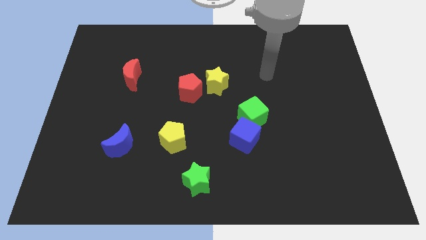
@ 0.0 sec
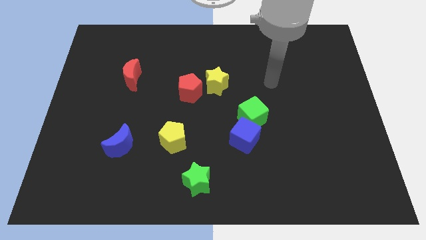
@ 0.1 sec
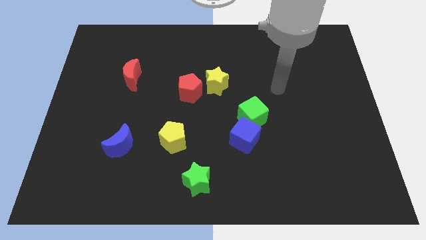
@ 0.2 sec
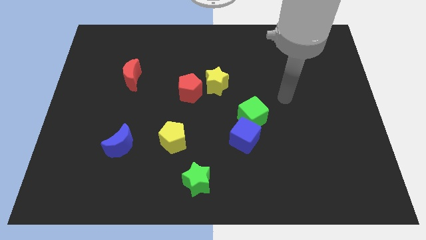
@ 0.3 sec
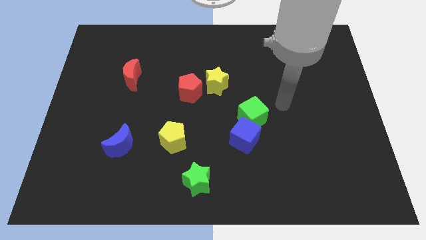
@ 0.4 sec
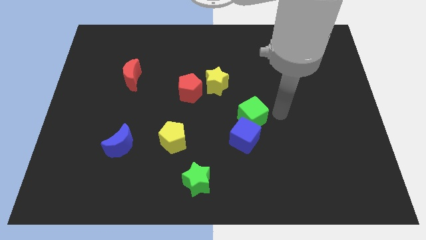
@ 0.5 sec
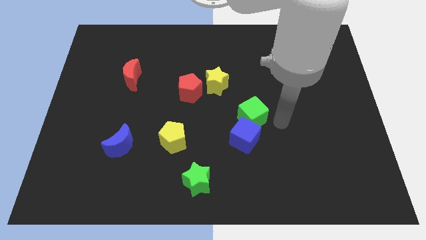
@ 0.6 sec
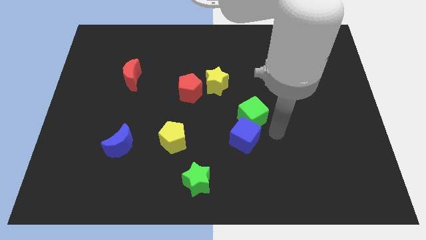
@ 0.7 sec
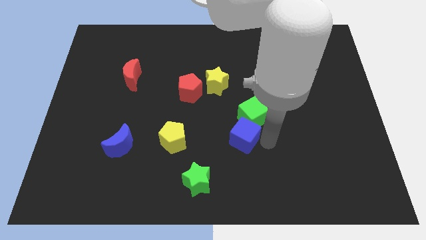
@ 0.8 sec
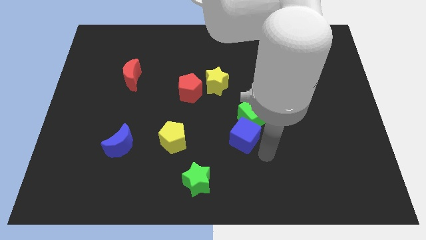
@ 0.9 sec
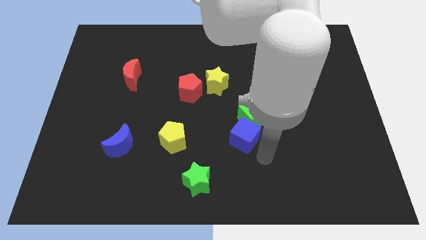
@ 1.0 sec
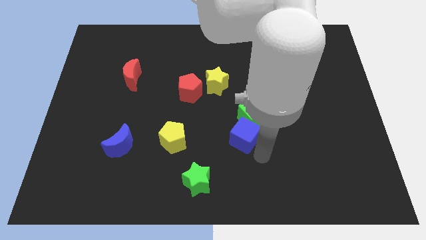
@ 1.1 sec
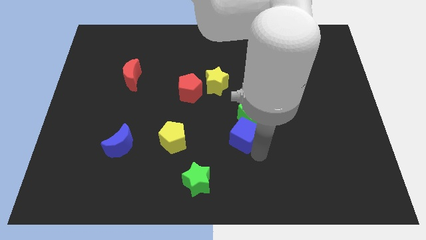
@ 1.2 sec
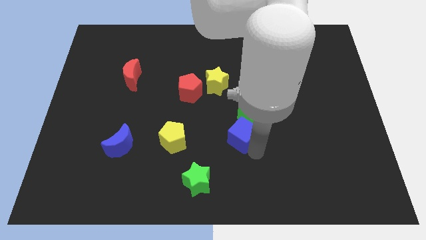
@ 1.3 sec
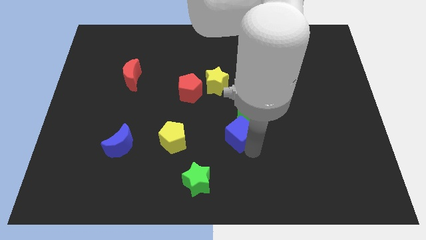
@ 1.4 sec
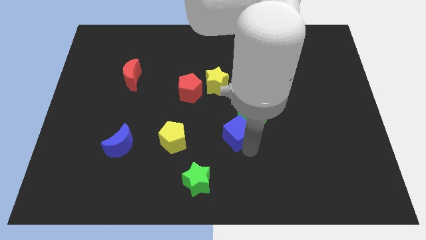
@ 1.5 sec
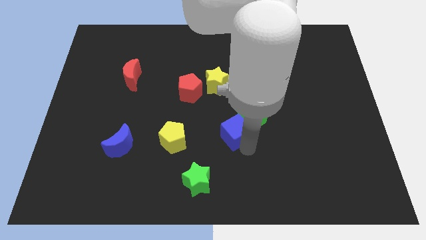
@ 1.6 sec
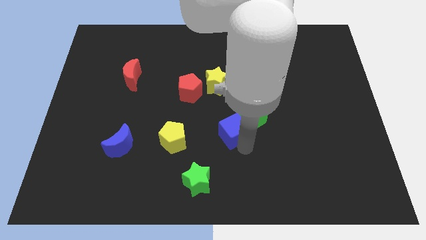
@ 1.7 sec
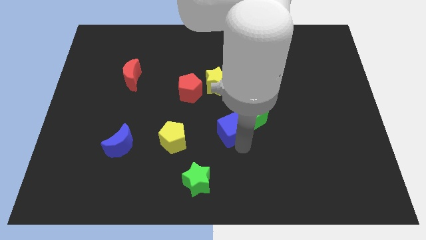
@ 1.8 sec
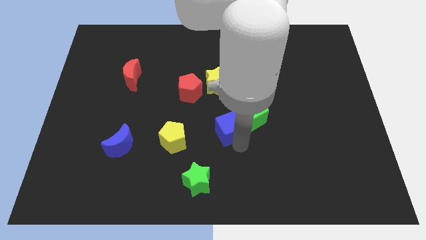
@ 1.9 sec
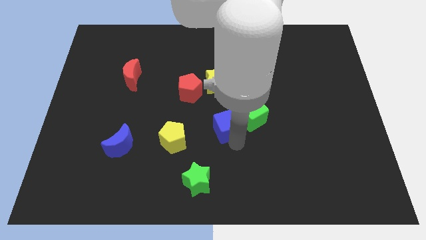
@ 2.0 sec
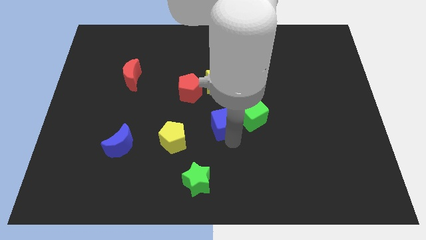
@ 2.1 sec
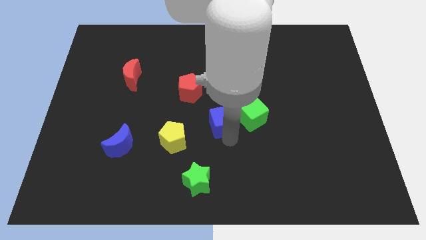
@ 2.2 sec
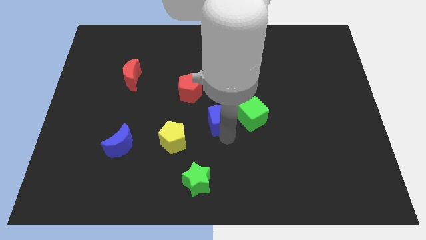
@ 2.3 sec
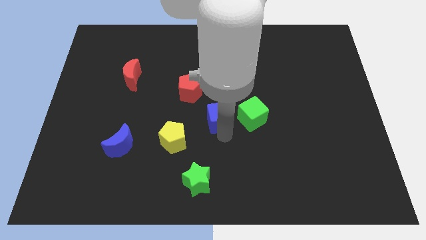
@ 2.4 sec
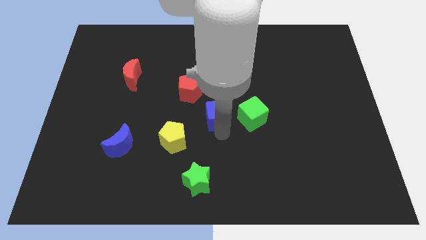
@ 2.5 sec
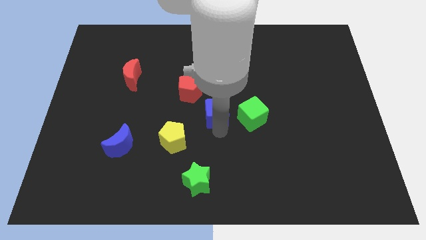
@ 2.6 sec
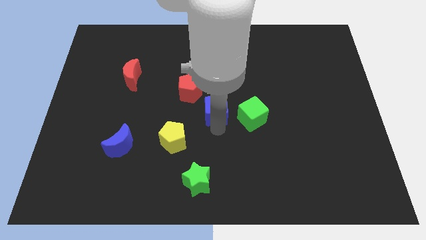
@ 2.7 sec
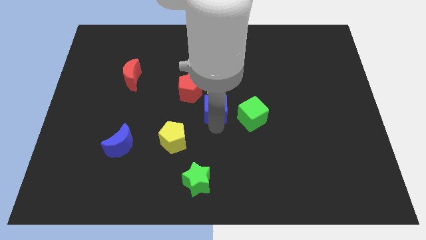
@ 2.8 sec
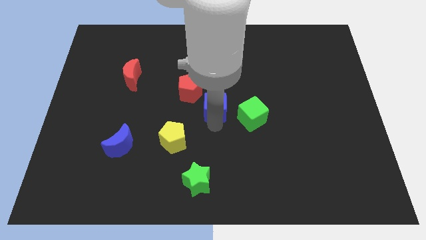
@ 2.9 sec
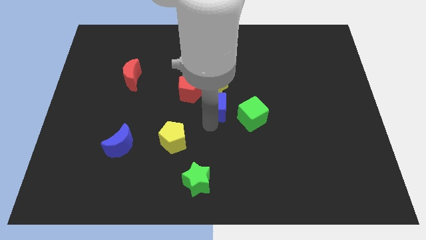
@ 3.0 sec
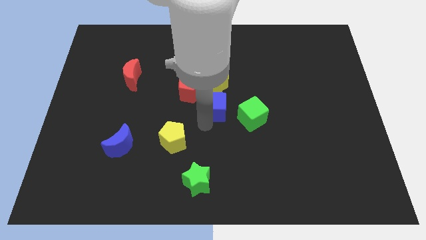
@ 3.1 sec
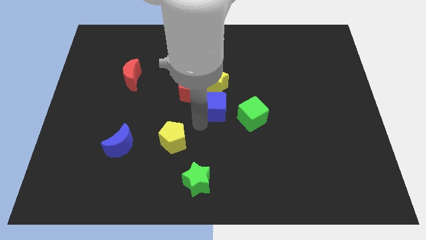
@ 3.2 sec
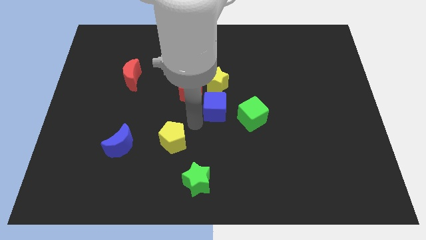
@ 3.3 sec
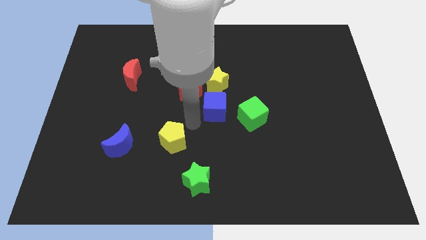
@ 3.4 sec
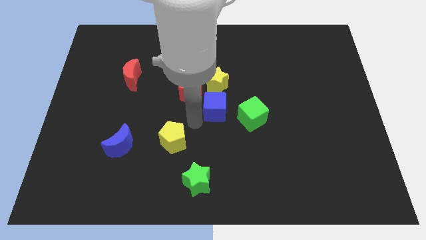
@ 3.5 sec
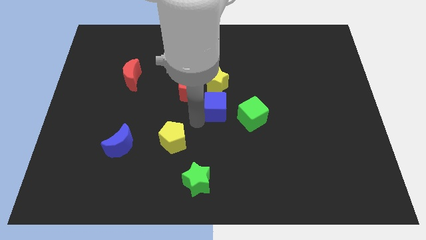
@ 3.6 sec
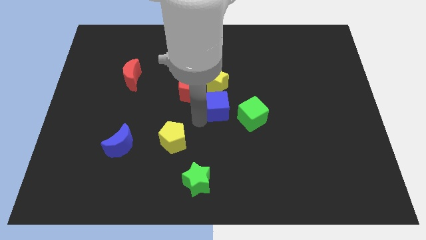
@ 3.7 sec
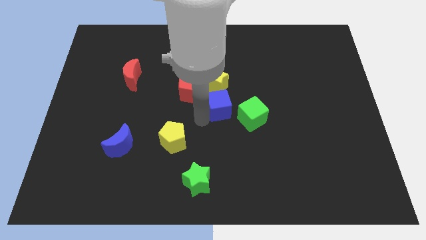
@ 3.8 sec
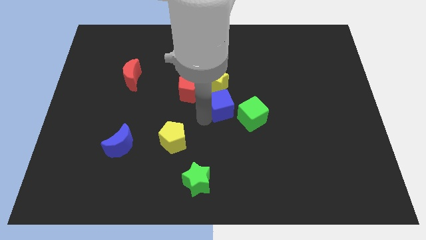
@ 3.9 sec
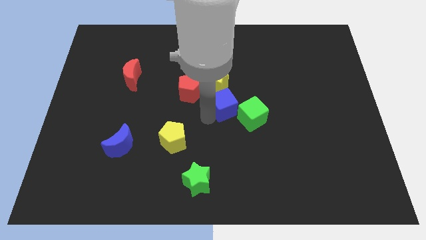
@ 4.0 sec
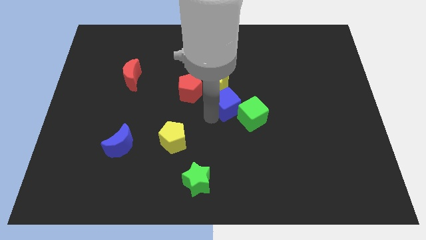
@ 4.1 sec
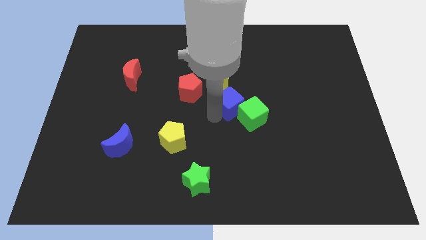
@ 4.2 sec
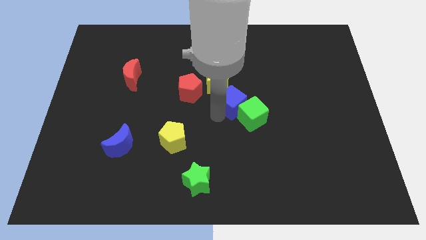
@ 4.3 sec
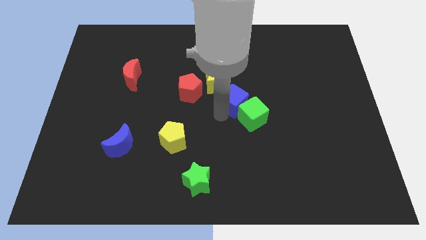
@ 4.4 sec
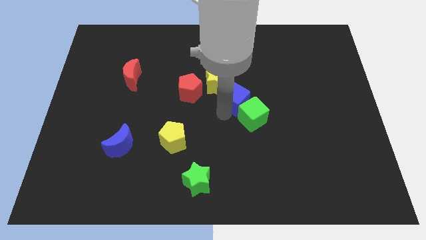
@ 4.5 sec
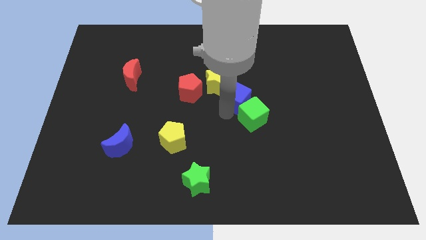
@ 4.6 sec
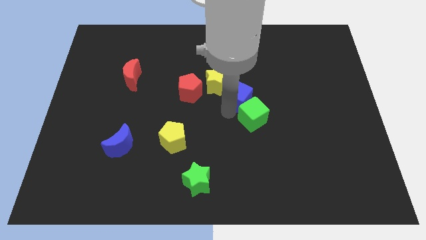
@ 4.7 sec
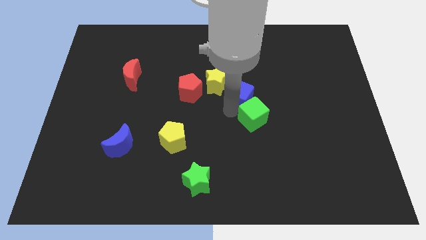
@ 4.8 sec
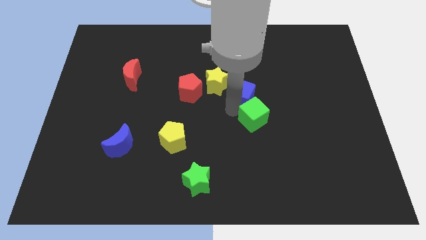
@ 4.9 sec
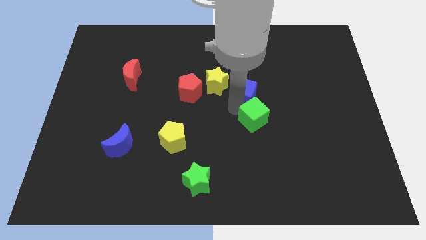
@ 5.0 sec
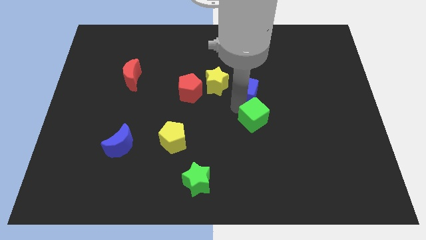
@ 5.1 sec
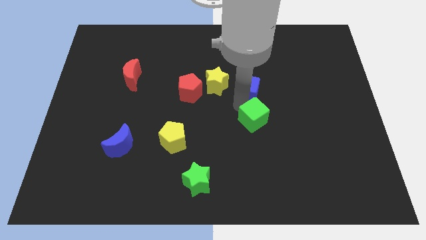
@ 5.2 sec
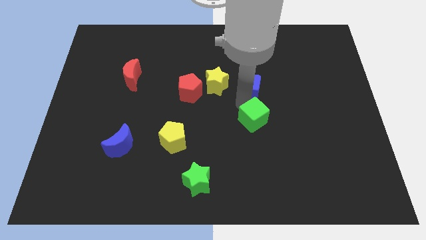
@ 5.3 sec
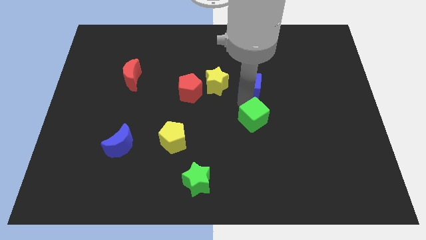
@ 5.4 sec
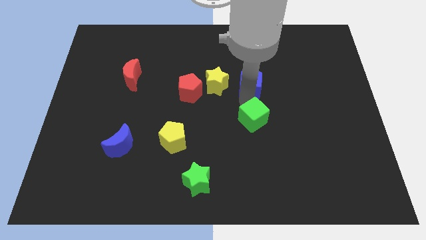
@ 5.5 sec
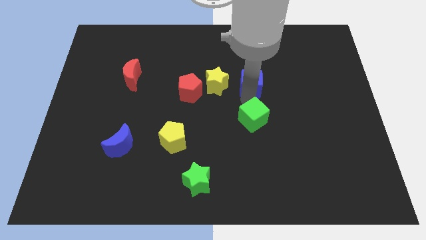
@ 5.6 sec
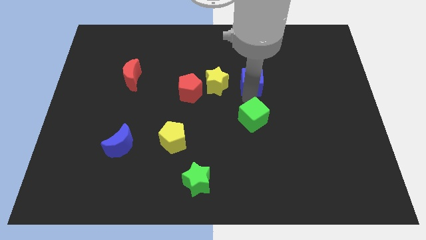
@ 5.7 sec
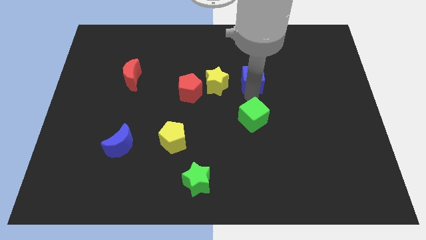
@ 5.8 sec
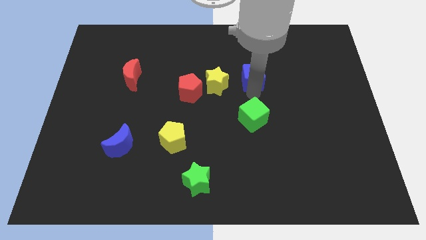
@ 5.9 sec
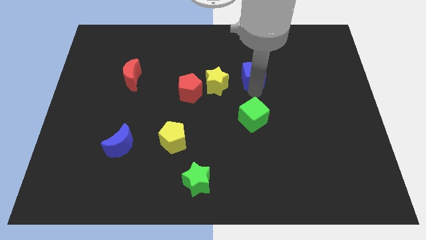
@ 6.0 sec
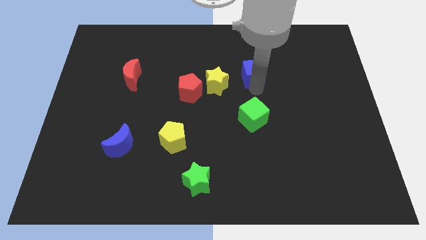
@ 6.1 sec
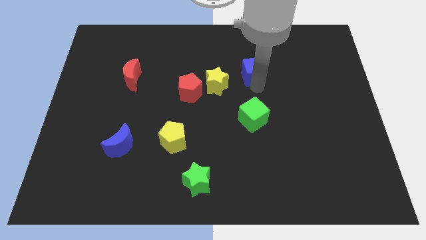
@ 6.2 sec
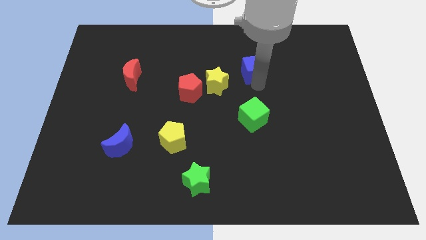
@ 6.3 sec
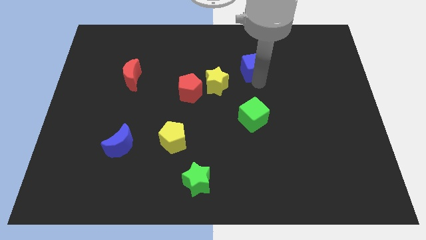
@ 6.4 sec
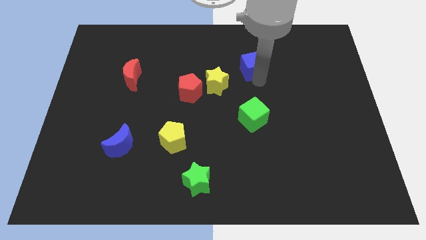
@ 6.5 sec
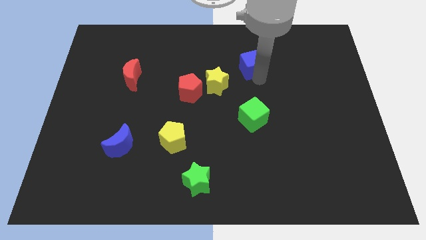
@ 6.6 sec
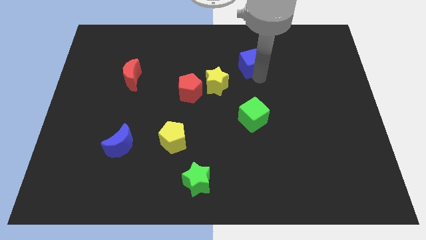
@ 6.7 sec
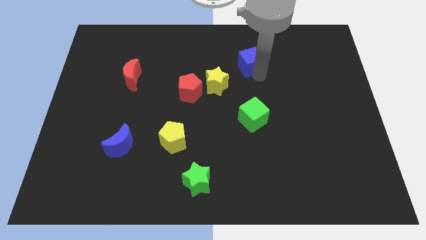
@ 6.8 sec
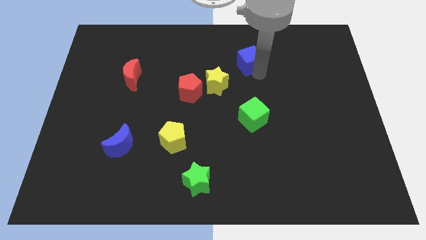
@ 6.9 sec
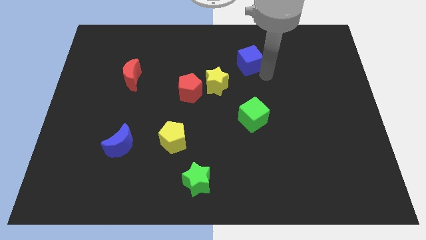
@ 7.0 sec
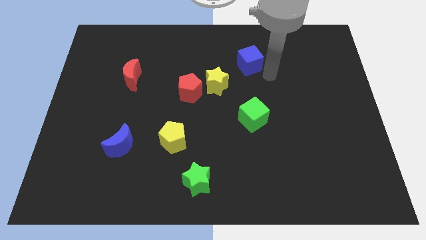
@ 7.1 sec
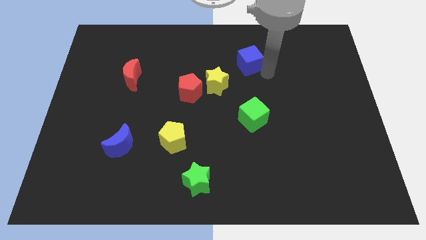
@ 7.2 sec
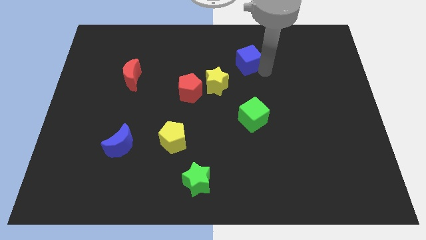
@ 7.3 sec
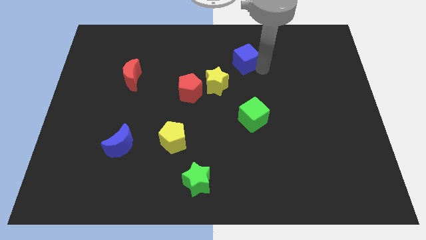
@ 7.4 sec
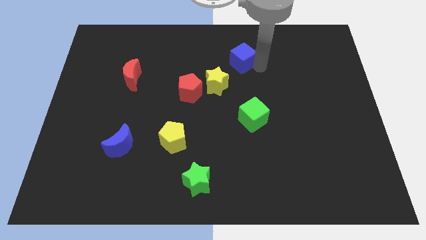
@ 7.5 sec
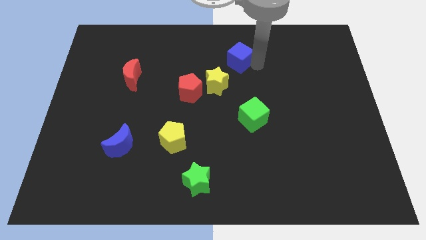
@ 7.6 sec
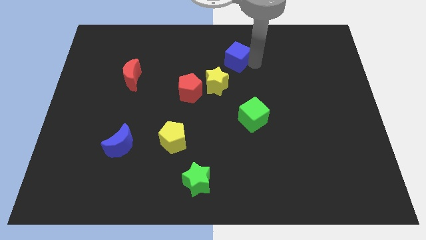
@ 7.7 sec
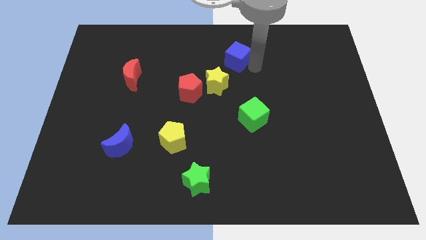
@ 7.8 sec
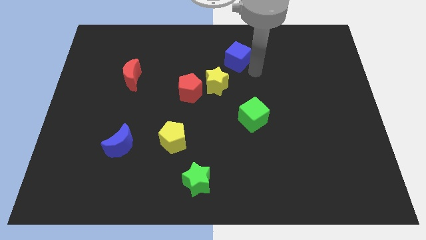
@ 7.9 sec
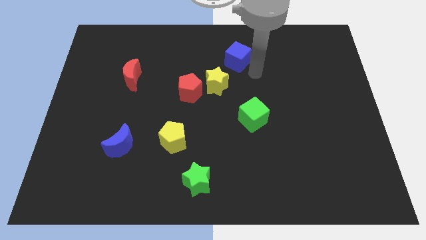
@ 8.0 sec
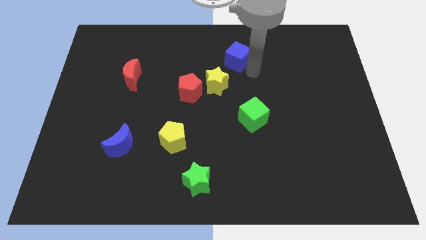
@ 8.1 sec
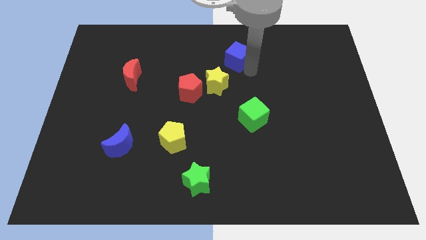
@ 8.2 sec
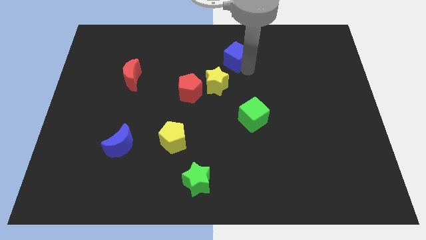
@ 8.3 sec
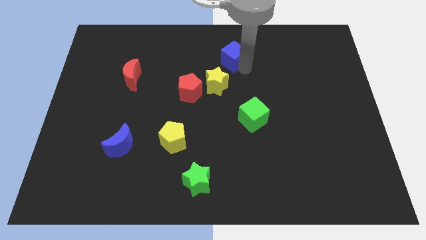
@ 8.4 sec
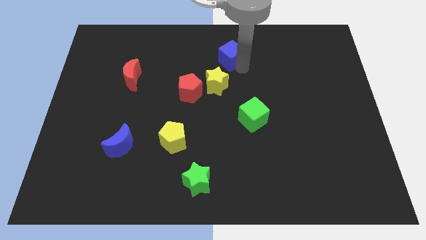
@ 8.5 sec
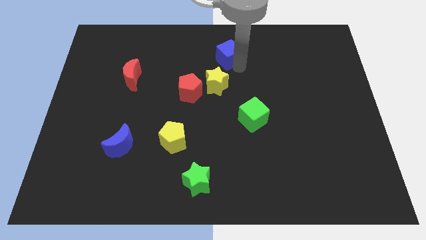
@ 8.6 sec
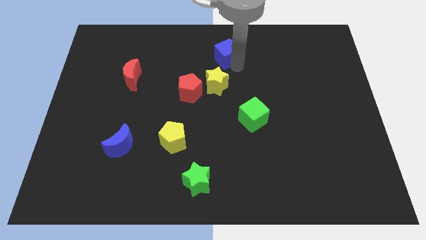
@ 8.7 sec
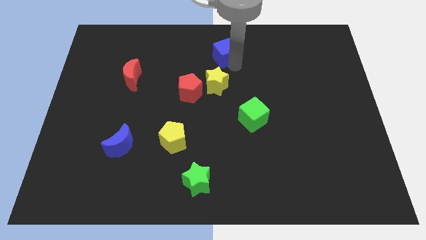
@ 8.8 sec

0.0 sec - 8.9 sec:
move the blue cube to the towards your base
